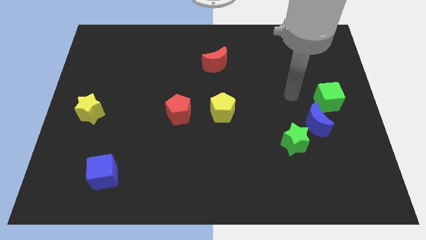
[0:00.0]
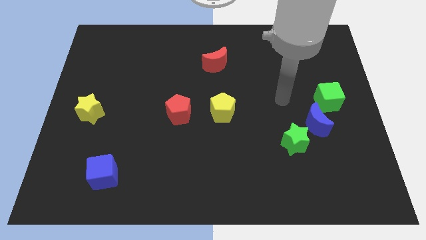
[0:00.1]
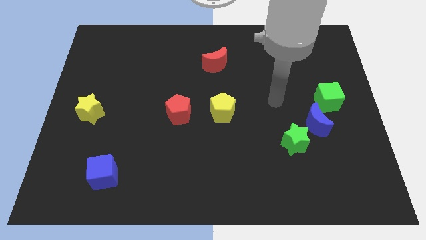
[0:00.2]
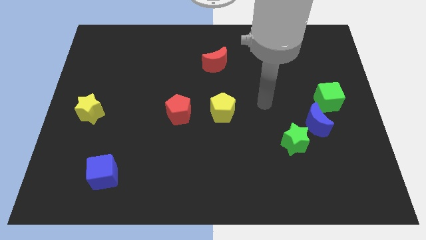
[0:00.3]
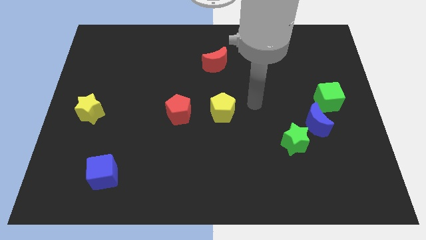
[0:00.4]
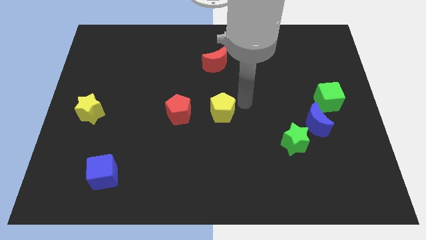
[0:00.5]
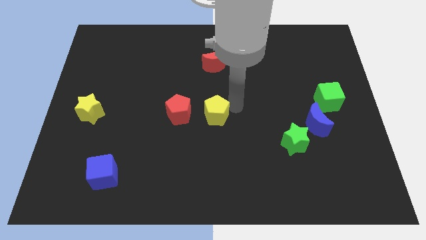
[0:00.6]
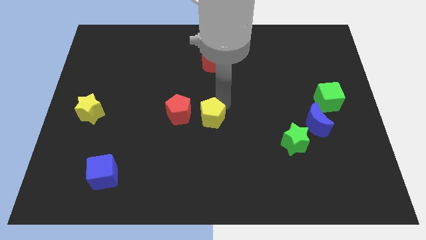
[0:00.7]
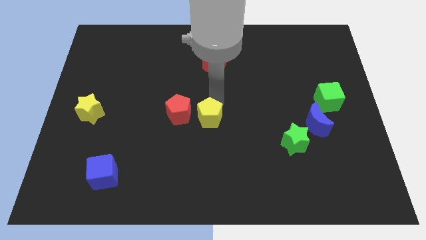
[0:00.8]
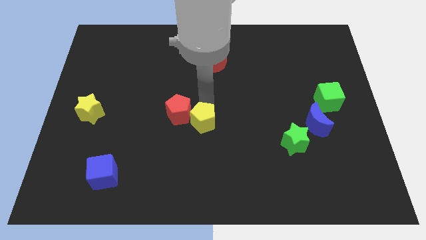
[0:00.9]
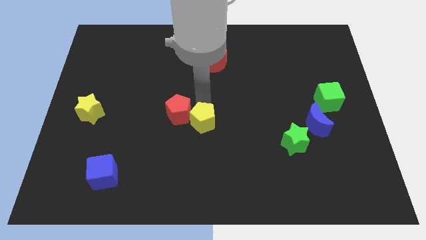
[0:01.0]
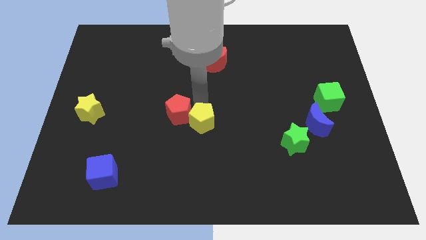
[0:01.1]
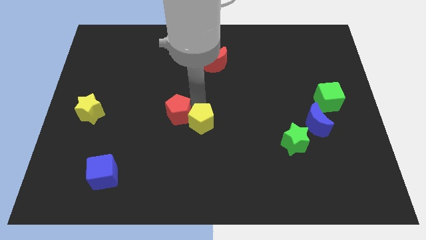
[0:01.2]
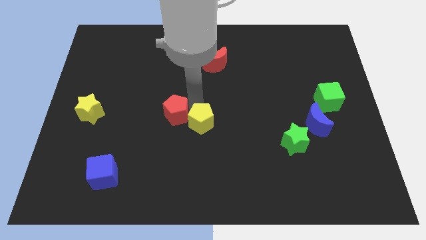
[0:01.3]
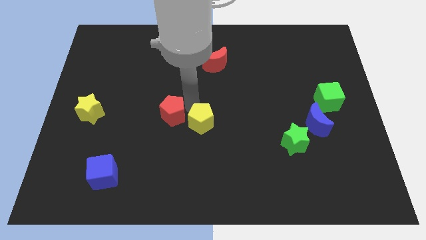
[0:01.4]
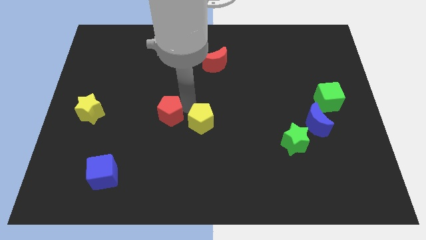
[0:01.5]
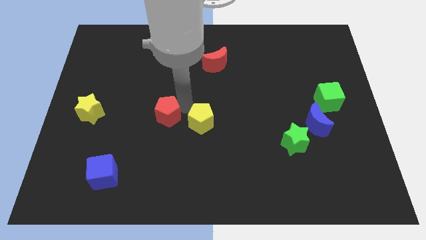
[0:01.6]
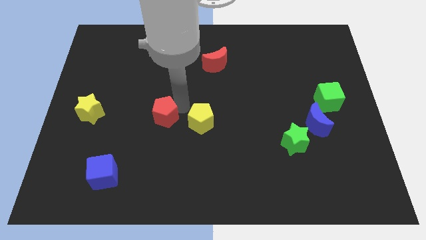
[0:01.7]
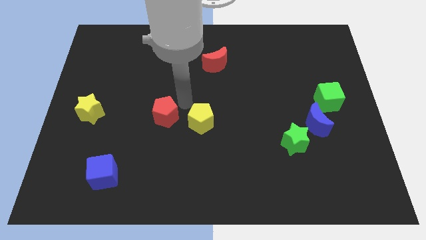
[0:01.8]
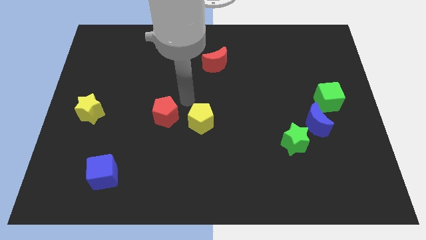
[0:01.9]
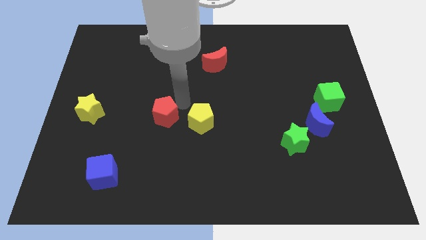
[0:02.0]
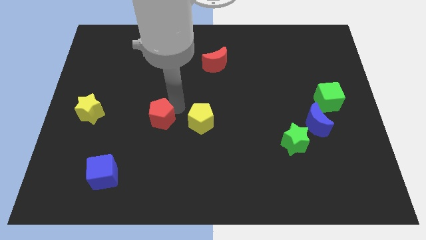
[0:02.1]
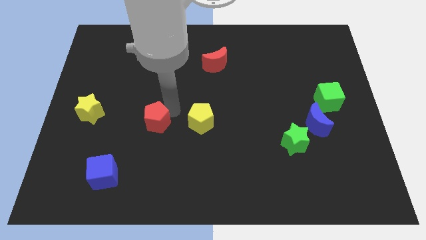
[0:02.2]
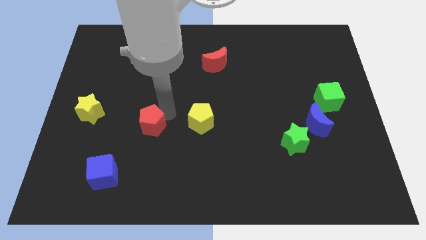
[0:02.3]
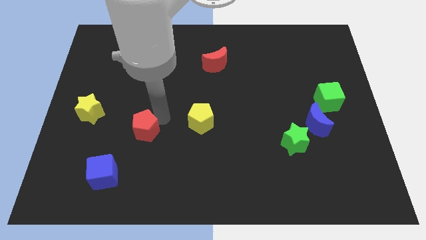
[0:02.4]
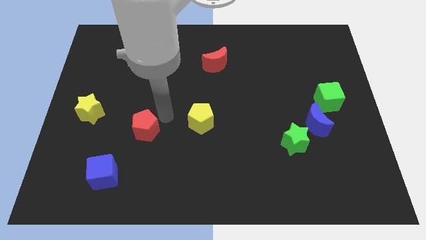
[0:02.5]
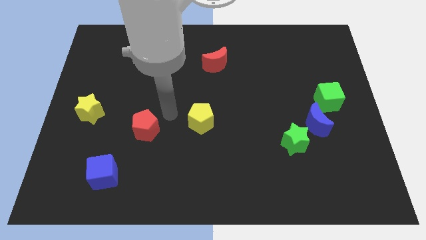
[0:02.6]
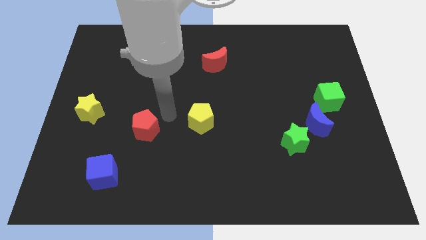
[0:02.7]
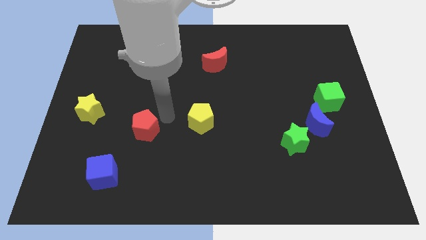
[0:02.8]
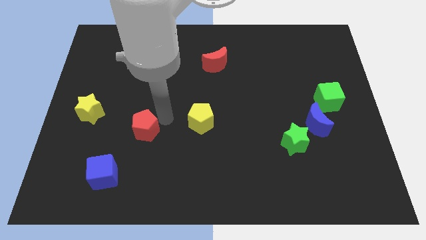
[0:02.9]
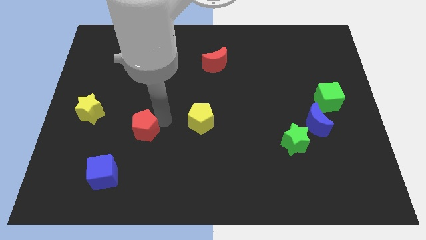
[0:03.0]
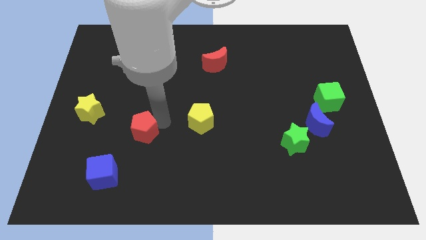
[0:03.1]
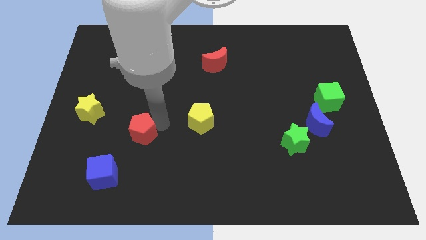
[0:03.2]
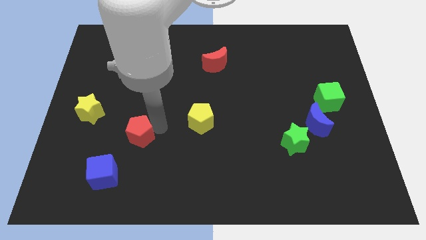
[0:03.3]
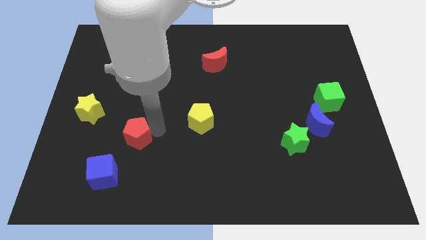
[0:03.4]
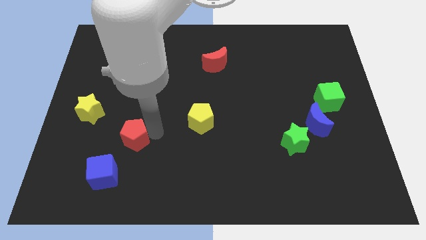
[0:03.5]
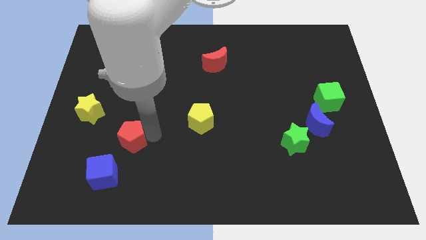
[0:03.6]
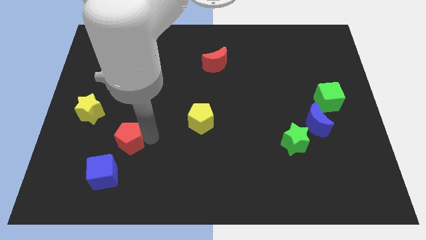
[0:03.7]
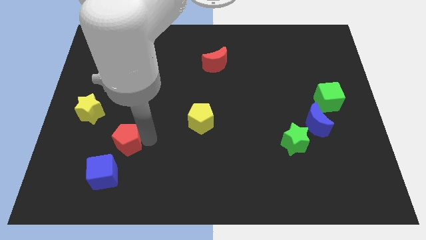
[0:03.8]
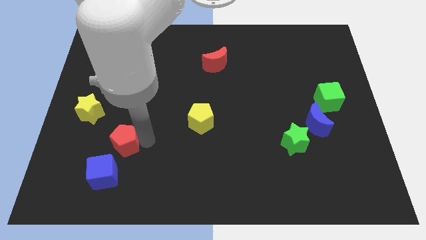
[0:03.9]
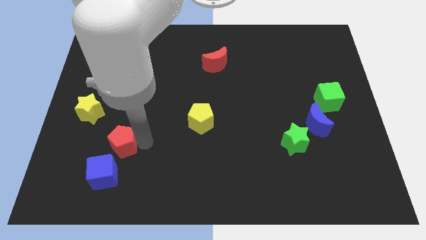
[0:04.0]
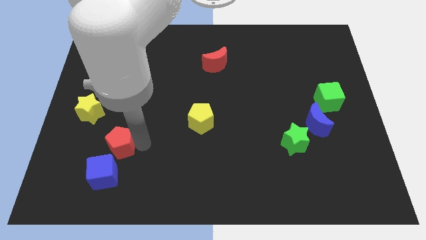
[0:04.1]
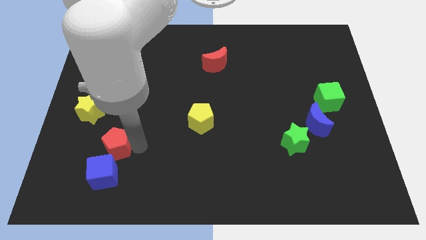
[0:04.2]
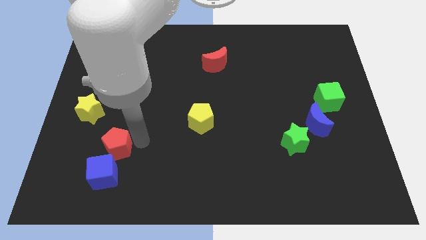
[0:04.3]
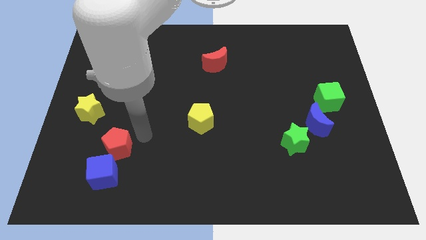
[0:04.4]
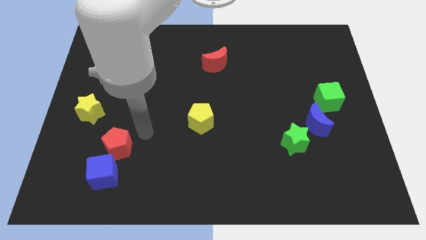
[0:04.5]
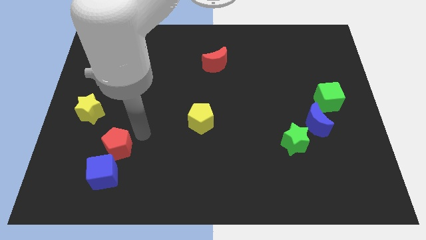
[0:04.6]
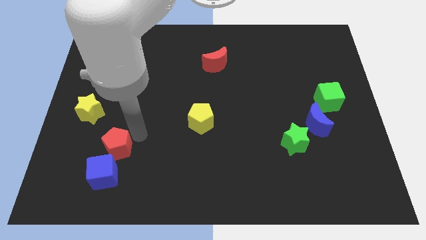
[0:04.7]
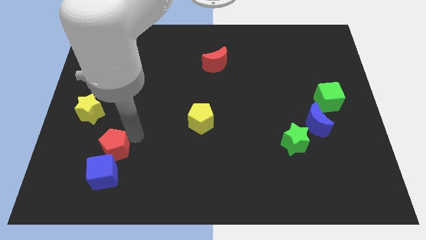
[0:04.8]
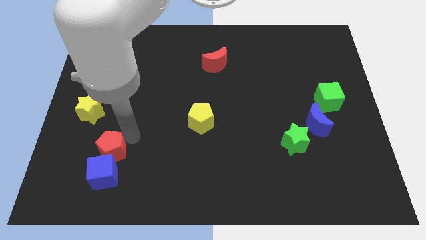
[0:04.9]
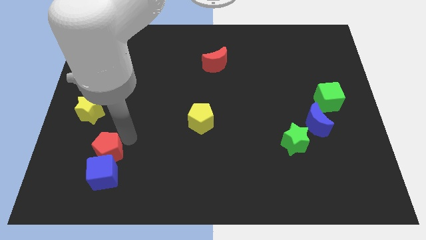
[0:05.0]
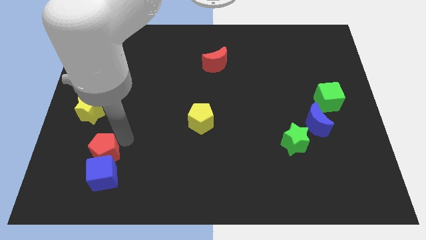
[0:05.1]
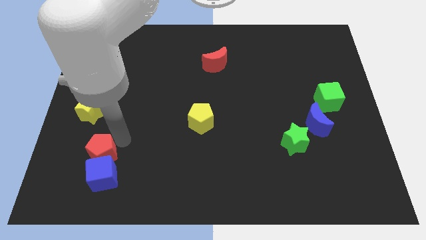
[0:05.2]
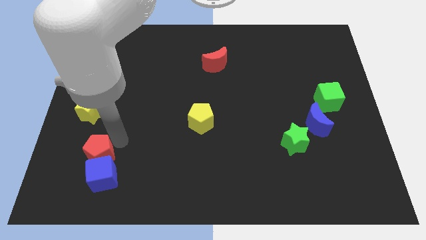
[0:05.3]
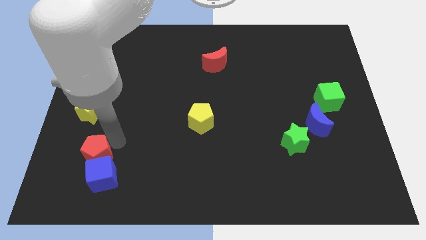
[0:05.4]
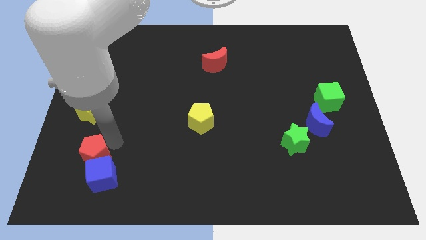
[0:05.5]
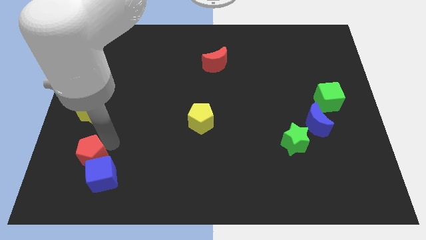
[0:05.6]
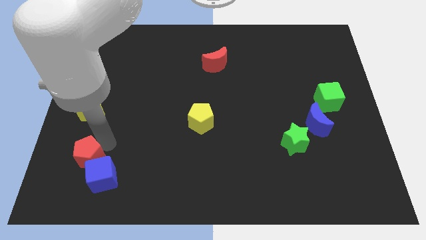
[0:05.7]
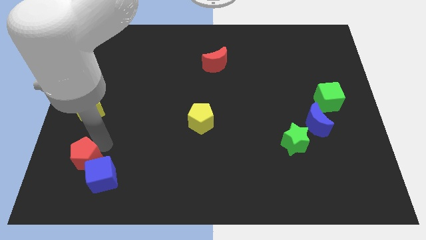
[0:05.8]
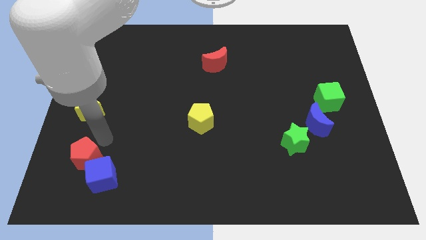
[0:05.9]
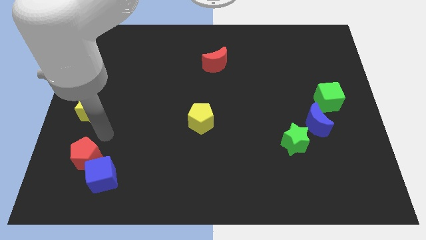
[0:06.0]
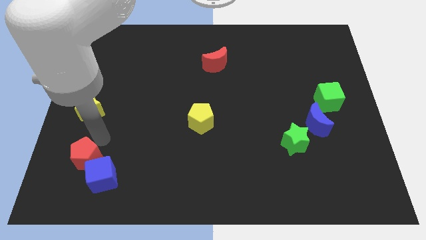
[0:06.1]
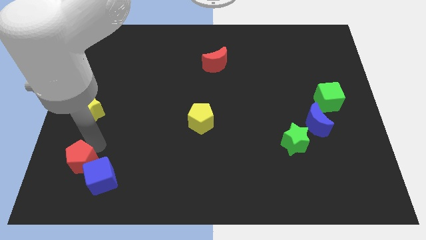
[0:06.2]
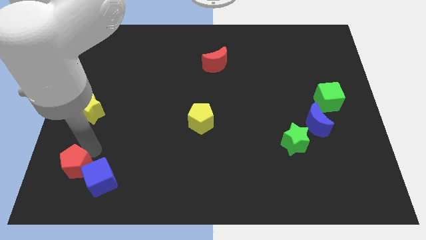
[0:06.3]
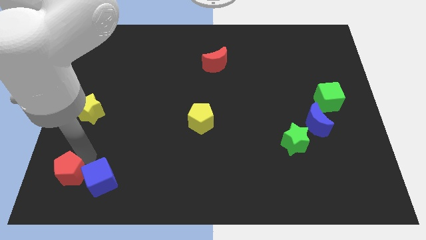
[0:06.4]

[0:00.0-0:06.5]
move the red pentagon to the bottom left

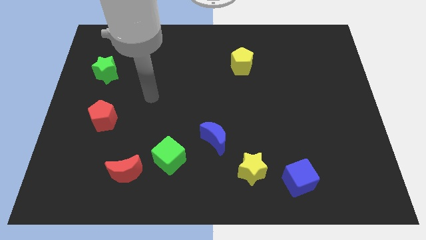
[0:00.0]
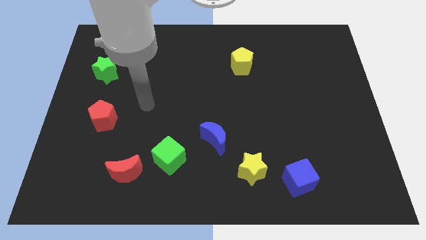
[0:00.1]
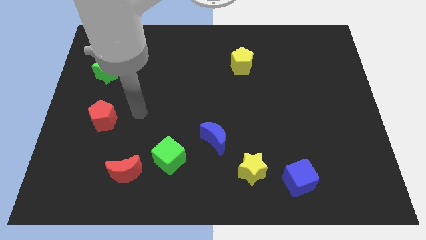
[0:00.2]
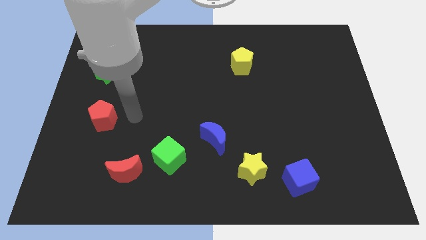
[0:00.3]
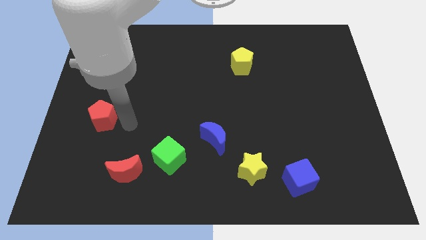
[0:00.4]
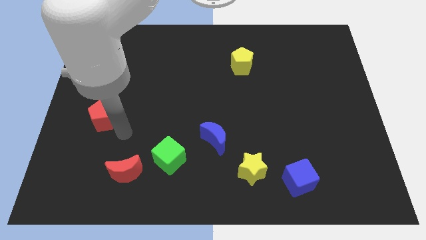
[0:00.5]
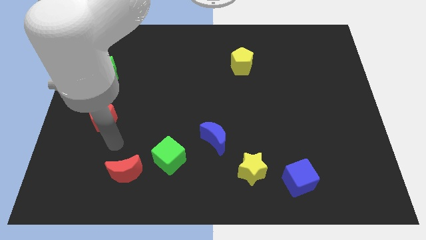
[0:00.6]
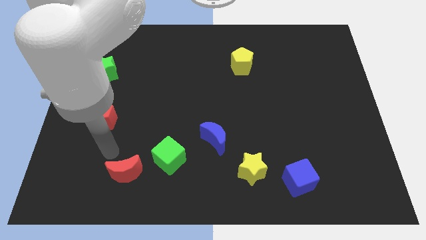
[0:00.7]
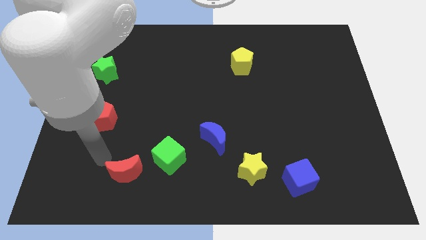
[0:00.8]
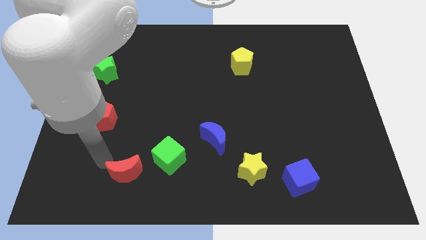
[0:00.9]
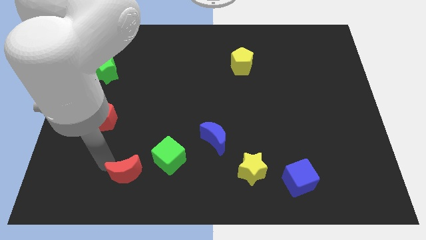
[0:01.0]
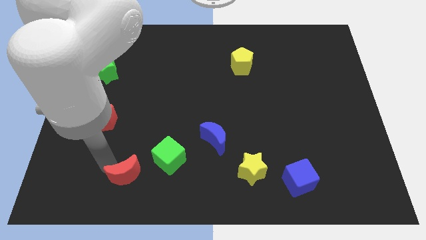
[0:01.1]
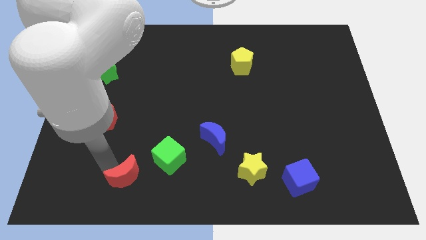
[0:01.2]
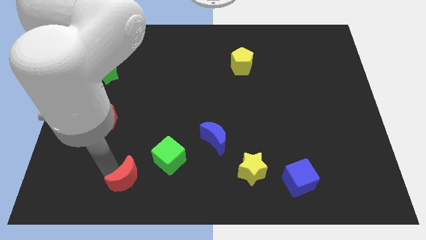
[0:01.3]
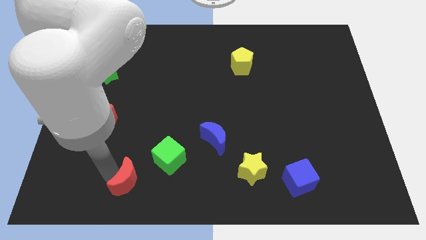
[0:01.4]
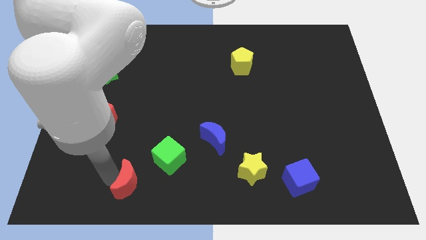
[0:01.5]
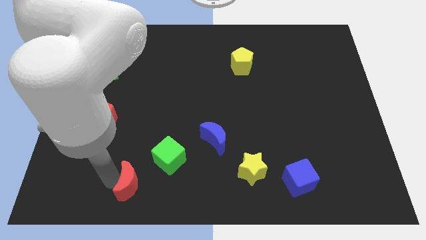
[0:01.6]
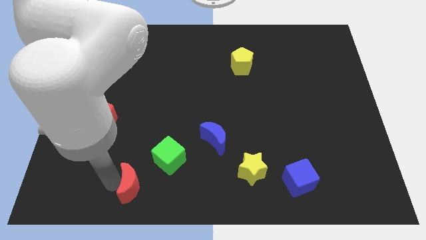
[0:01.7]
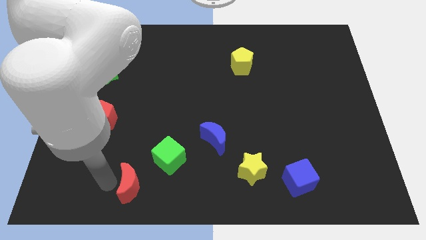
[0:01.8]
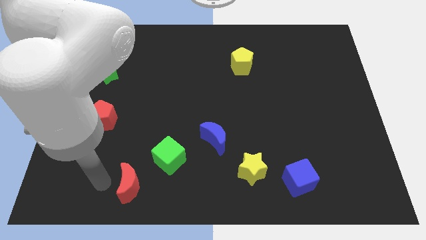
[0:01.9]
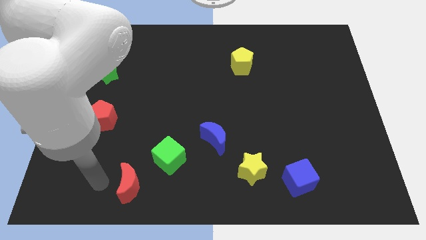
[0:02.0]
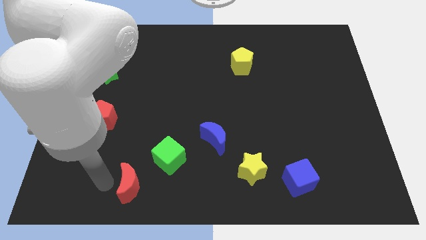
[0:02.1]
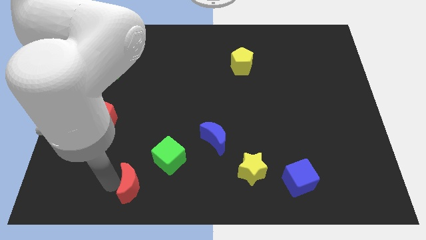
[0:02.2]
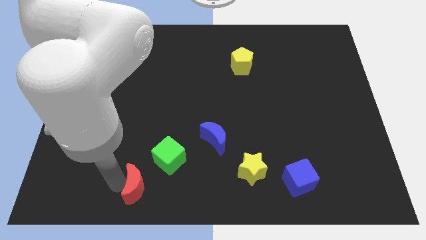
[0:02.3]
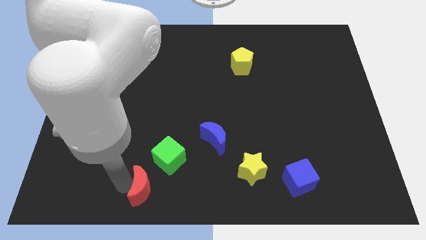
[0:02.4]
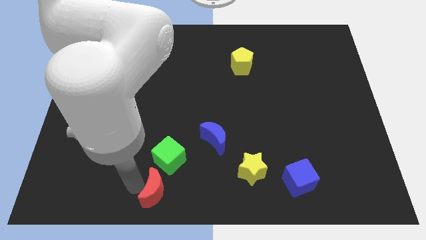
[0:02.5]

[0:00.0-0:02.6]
put the red moon to the bottom
